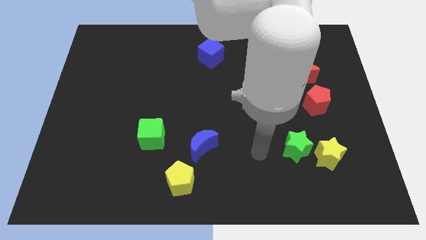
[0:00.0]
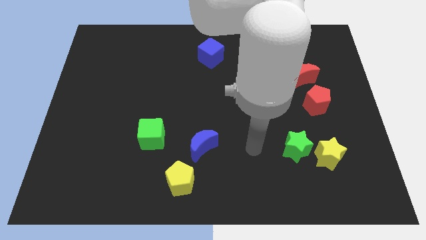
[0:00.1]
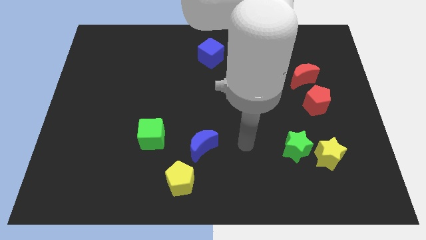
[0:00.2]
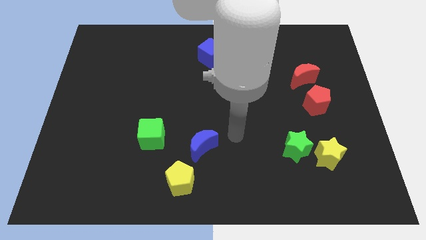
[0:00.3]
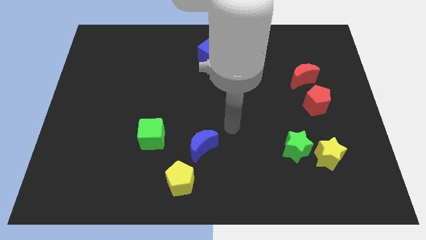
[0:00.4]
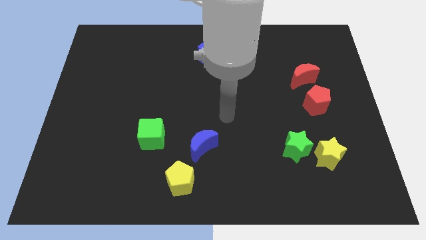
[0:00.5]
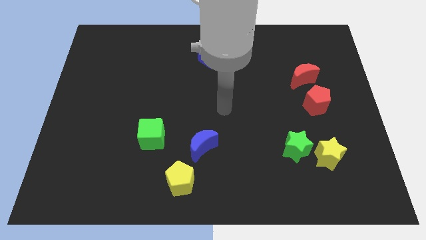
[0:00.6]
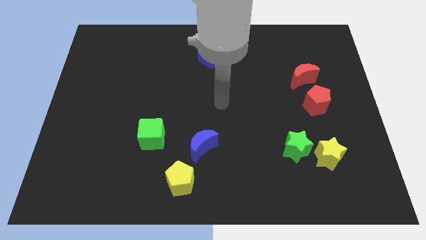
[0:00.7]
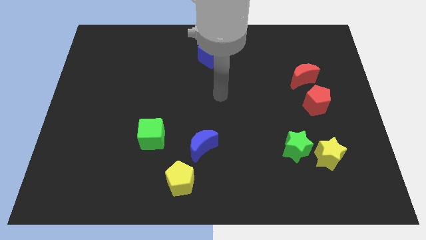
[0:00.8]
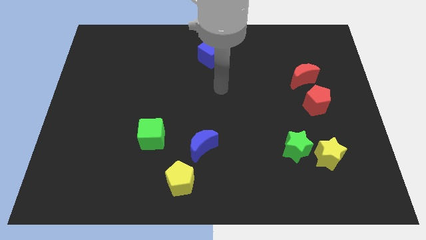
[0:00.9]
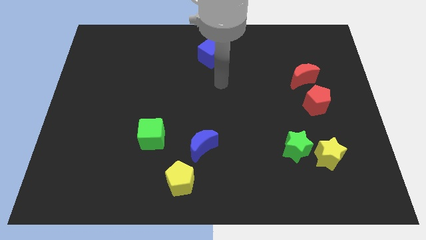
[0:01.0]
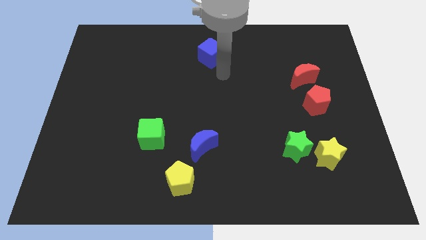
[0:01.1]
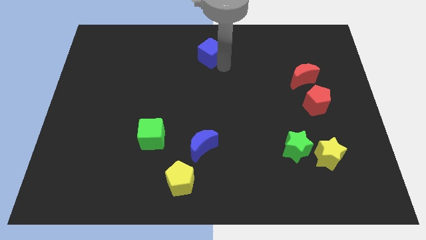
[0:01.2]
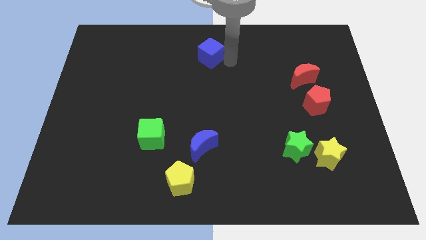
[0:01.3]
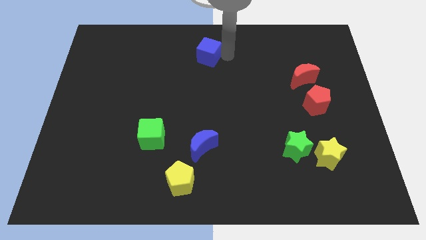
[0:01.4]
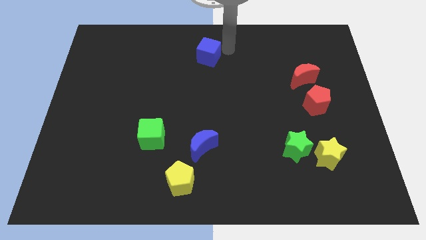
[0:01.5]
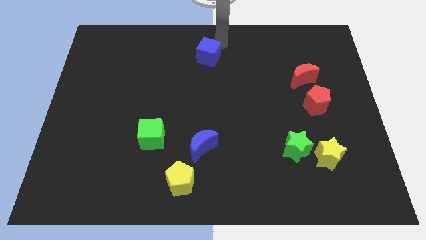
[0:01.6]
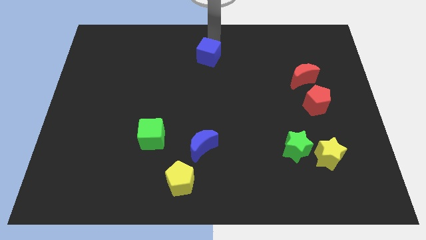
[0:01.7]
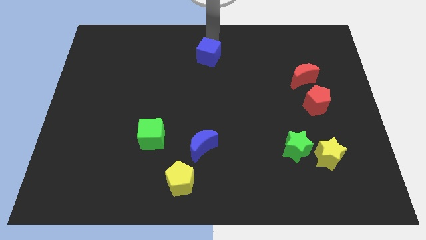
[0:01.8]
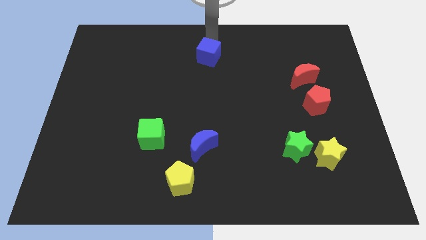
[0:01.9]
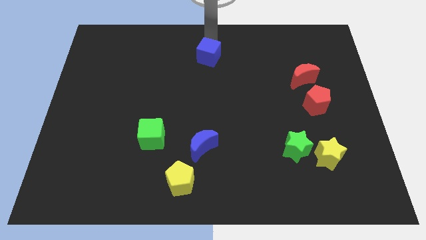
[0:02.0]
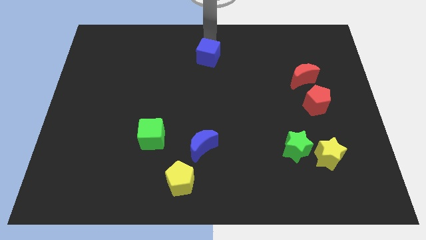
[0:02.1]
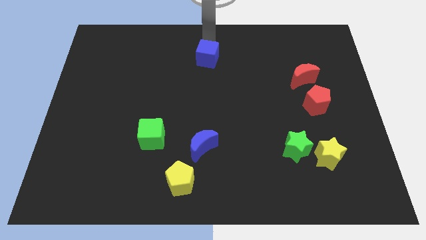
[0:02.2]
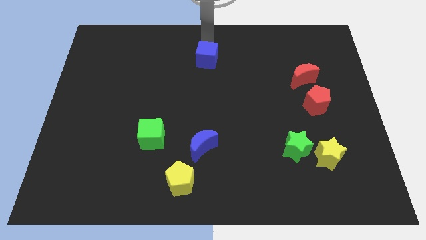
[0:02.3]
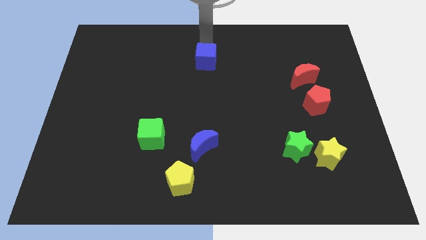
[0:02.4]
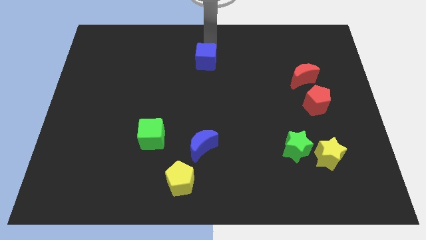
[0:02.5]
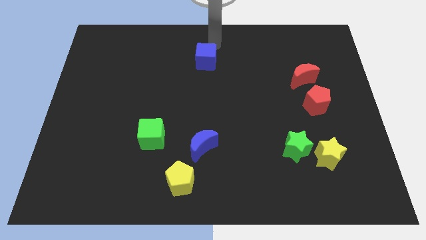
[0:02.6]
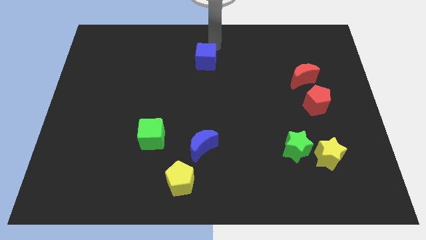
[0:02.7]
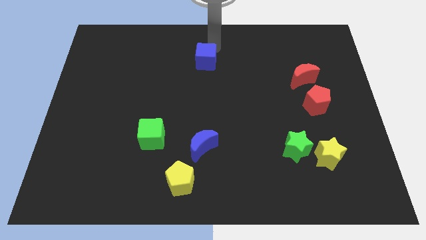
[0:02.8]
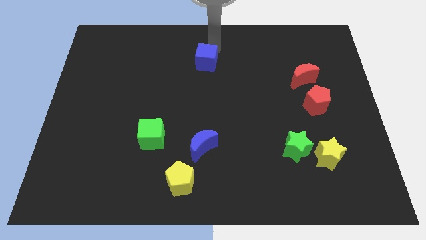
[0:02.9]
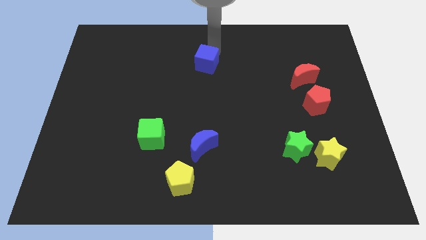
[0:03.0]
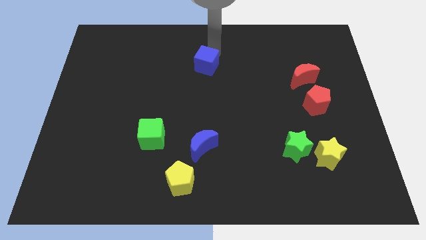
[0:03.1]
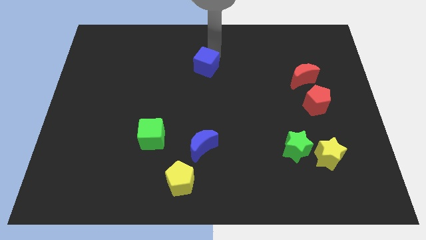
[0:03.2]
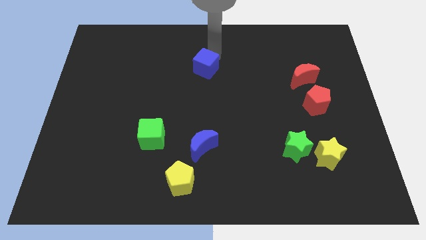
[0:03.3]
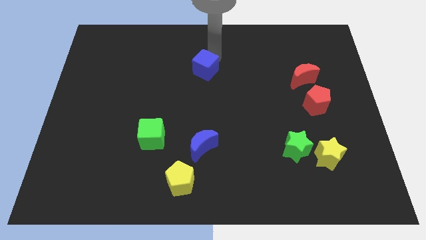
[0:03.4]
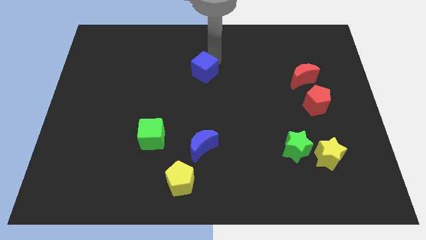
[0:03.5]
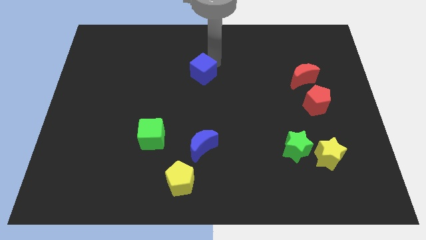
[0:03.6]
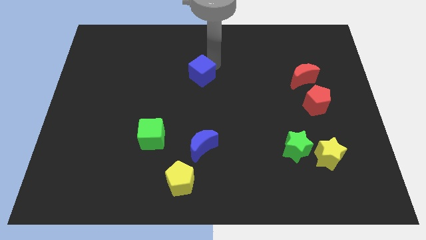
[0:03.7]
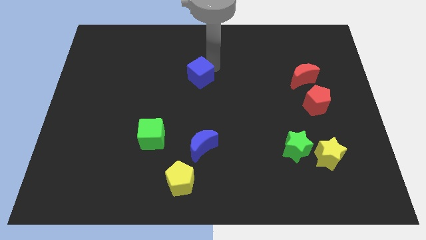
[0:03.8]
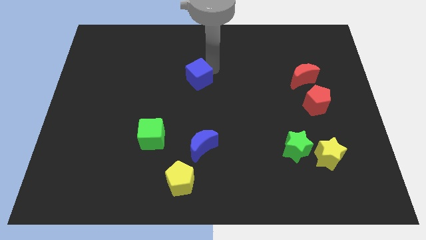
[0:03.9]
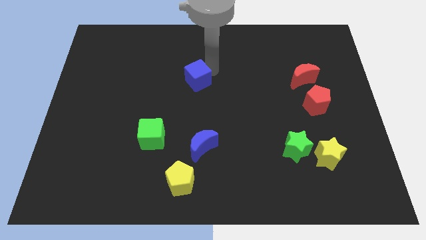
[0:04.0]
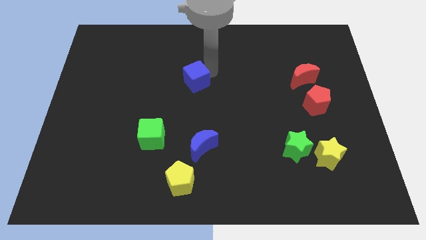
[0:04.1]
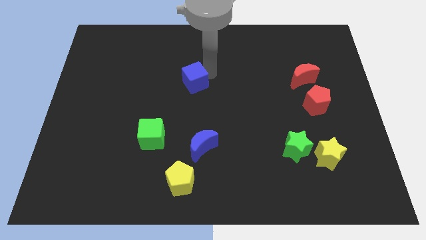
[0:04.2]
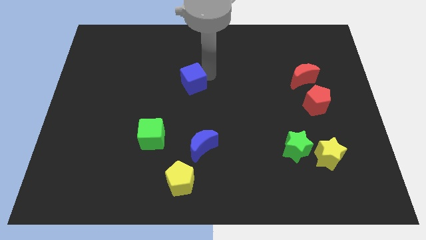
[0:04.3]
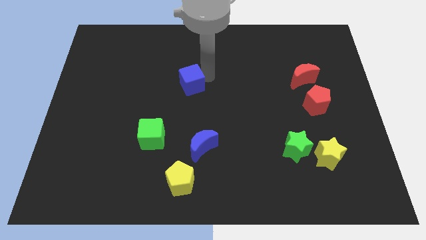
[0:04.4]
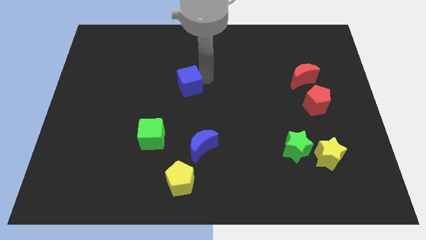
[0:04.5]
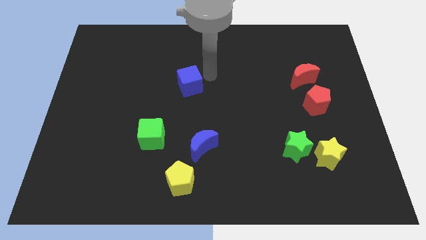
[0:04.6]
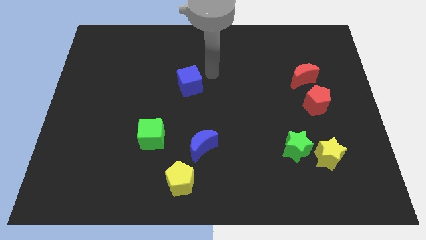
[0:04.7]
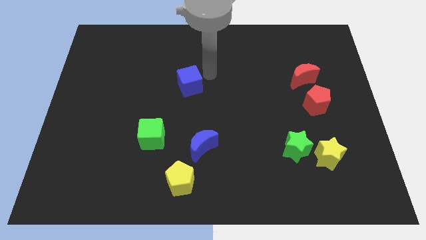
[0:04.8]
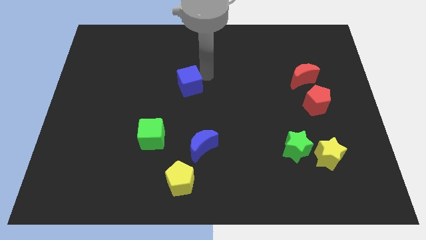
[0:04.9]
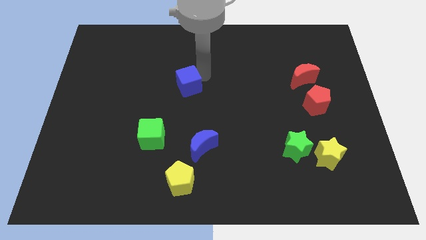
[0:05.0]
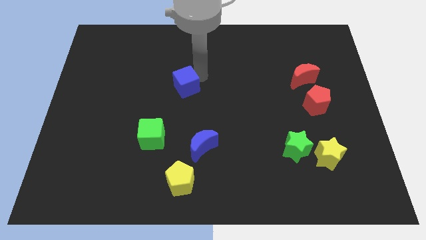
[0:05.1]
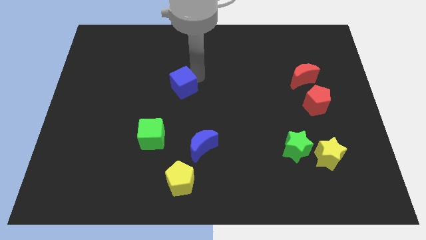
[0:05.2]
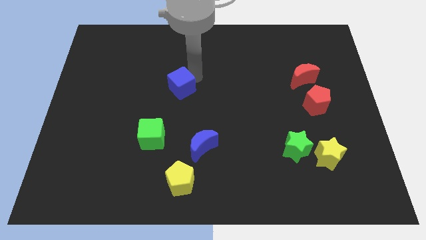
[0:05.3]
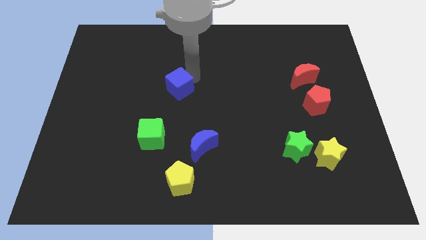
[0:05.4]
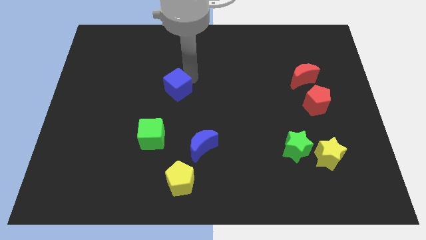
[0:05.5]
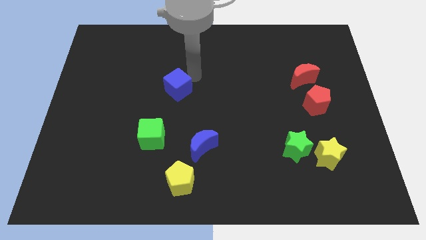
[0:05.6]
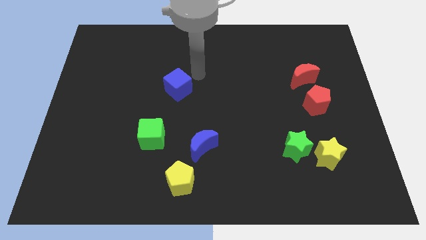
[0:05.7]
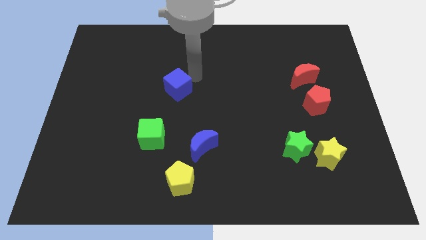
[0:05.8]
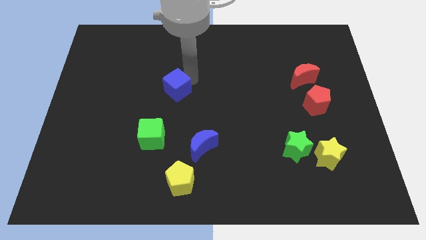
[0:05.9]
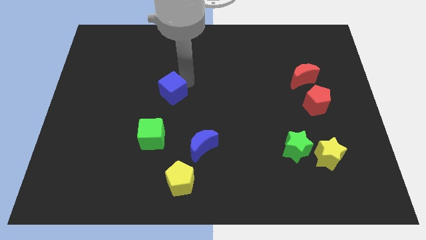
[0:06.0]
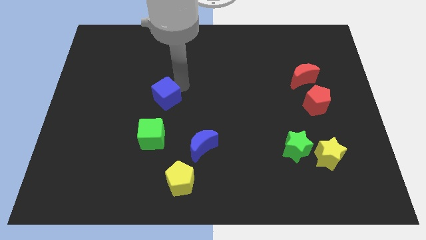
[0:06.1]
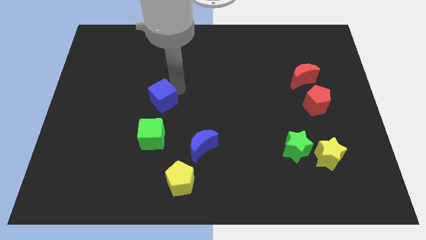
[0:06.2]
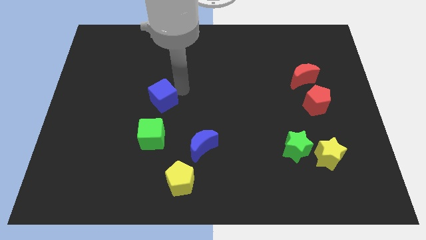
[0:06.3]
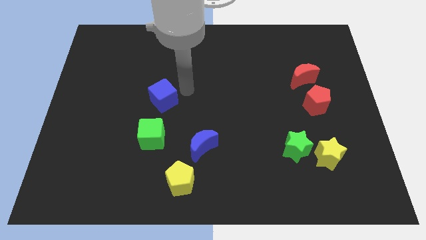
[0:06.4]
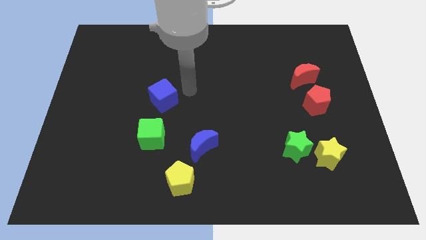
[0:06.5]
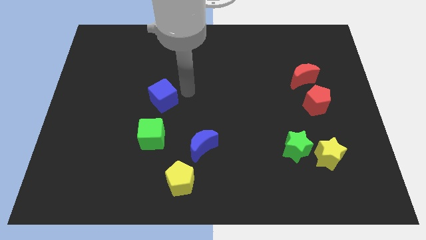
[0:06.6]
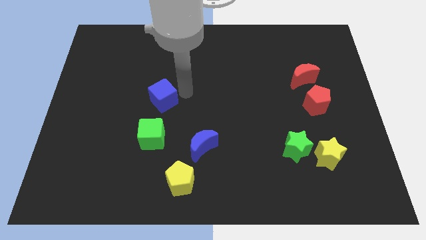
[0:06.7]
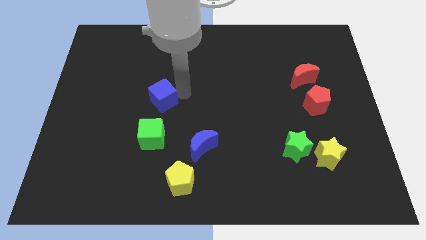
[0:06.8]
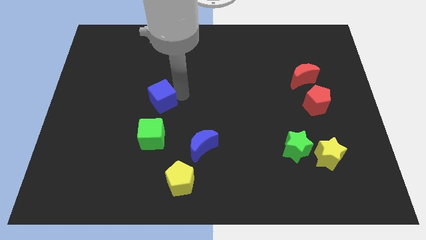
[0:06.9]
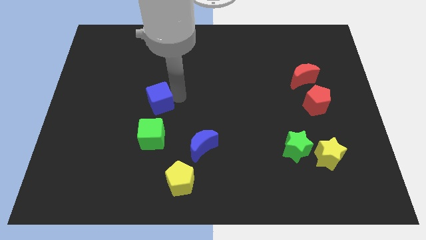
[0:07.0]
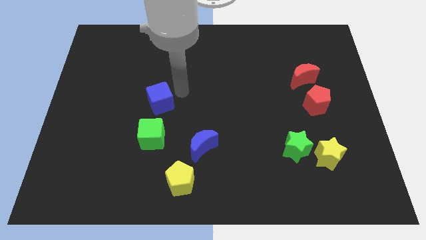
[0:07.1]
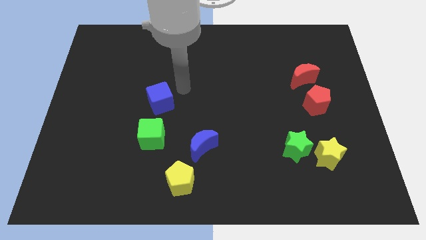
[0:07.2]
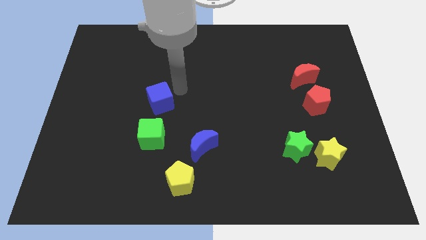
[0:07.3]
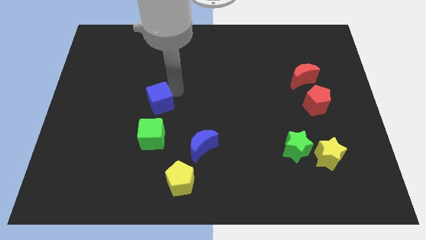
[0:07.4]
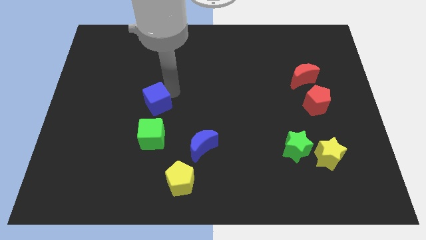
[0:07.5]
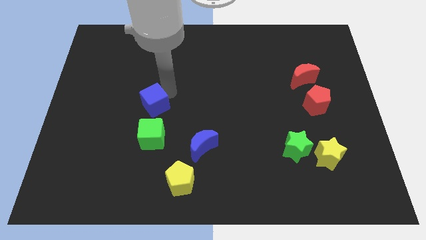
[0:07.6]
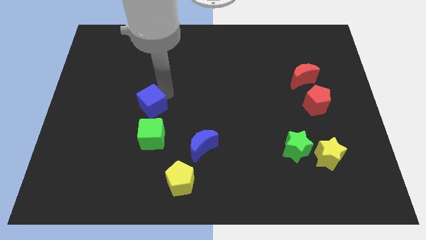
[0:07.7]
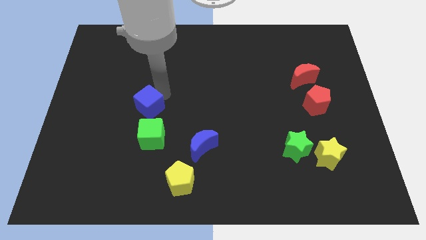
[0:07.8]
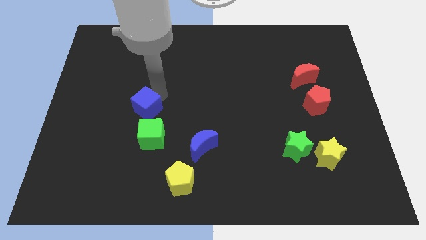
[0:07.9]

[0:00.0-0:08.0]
move the blue cube to the top left of the green cube
